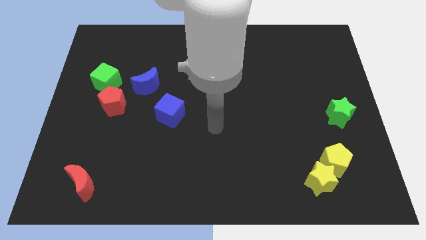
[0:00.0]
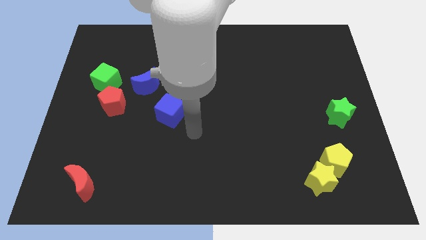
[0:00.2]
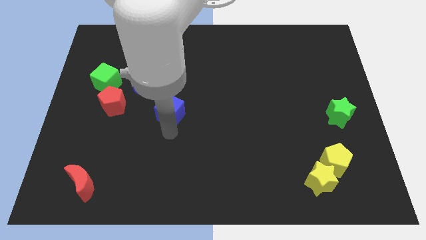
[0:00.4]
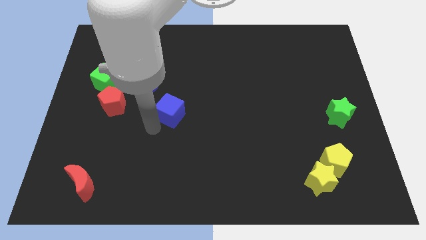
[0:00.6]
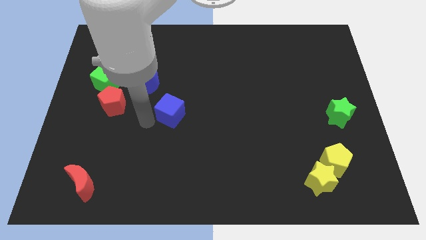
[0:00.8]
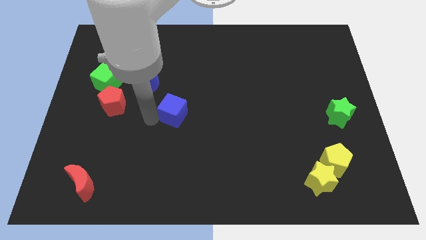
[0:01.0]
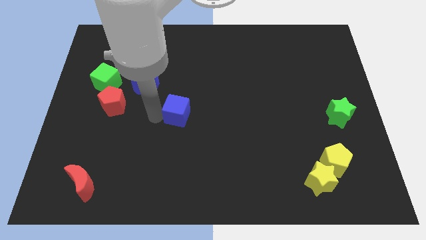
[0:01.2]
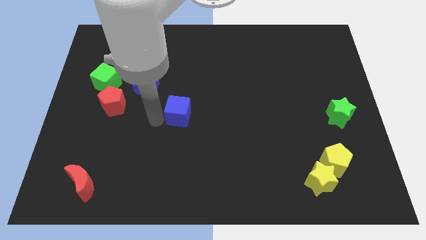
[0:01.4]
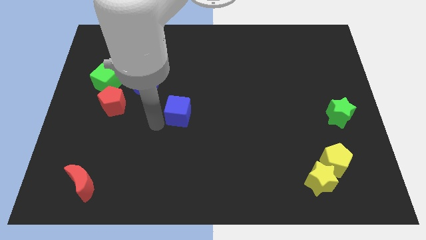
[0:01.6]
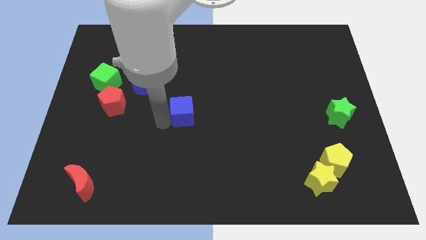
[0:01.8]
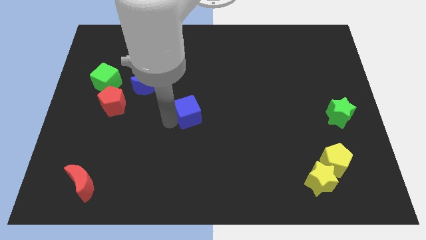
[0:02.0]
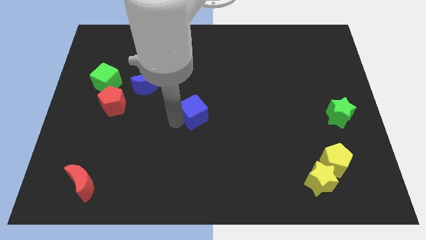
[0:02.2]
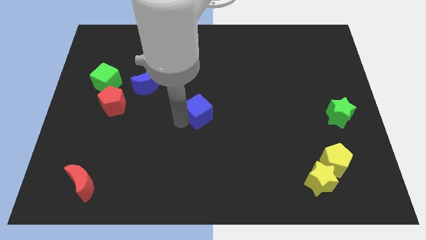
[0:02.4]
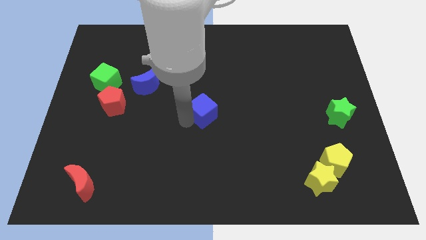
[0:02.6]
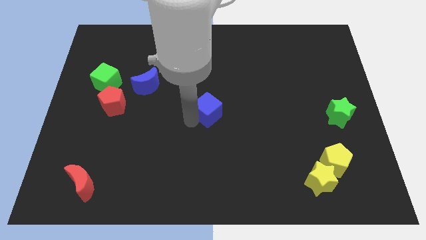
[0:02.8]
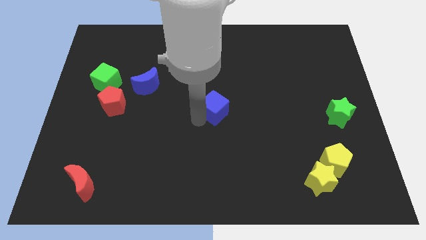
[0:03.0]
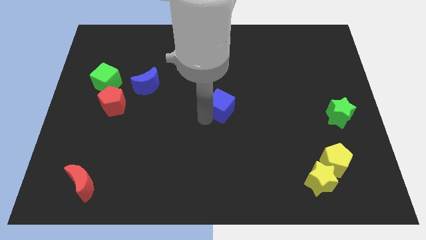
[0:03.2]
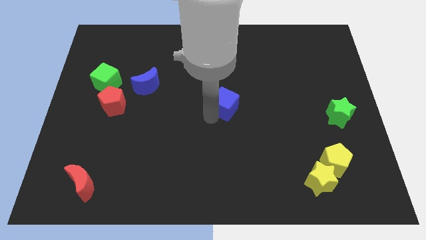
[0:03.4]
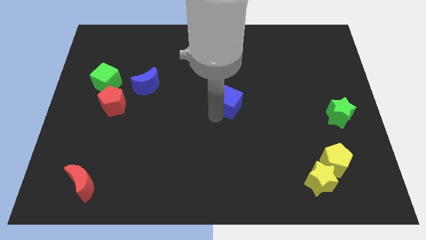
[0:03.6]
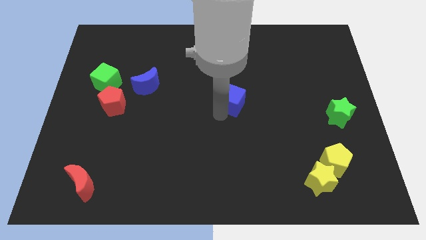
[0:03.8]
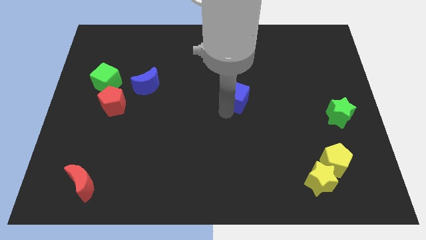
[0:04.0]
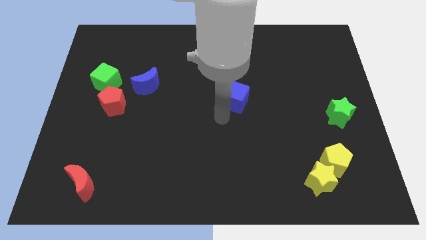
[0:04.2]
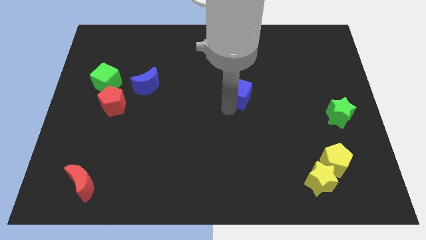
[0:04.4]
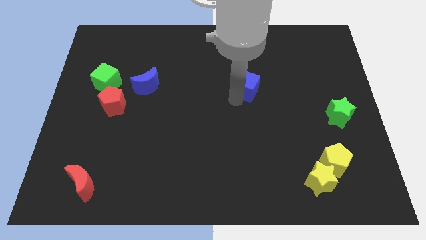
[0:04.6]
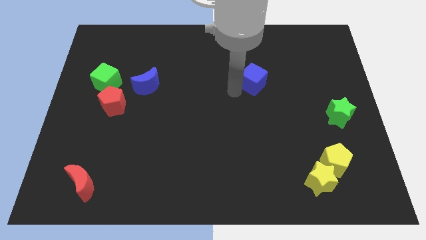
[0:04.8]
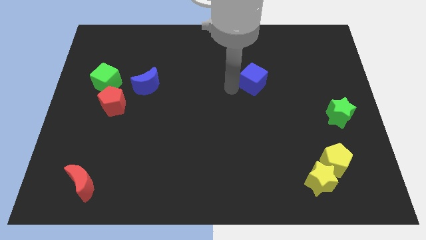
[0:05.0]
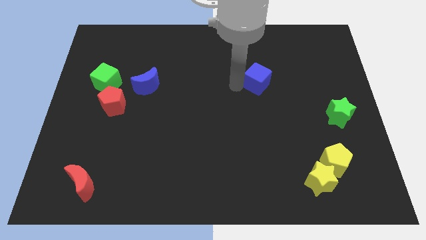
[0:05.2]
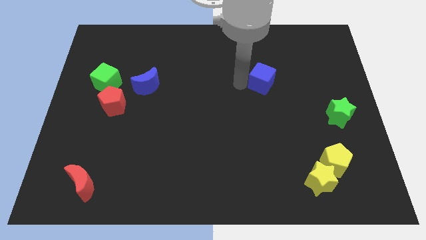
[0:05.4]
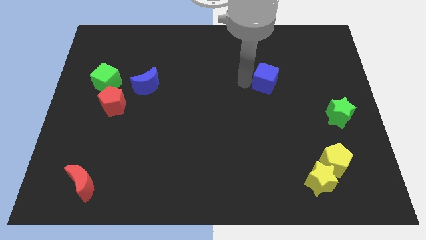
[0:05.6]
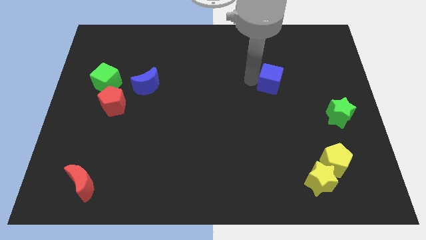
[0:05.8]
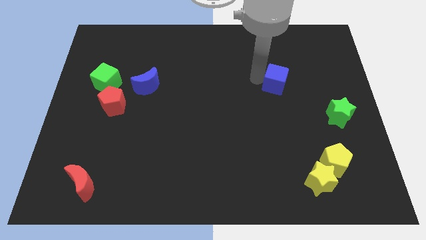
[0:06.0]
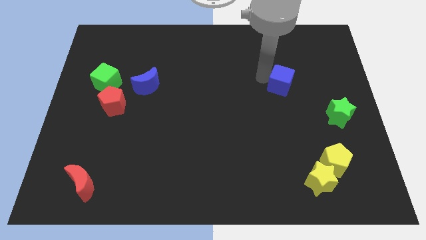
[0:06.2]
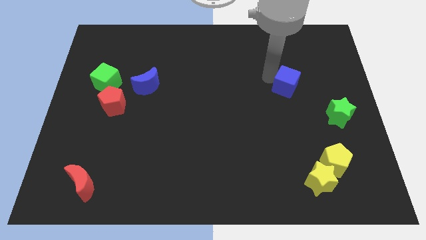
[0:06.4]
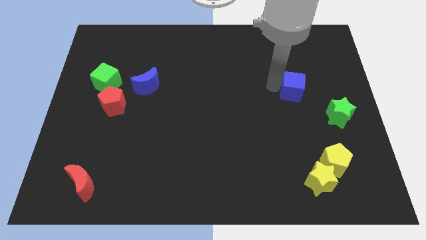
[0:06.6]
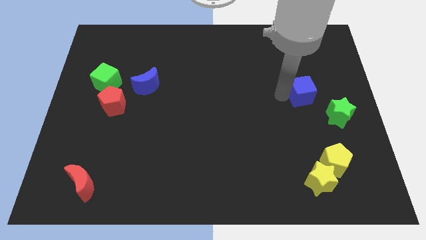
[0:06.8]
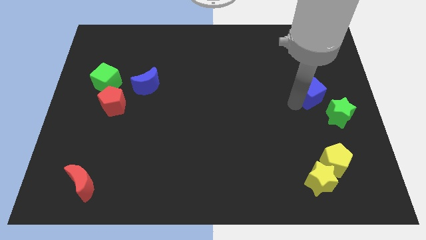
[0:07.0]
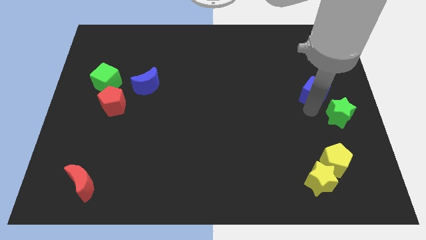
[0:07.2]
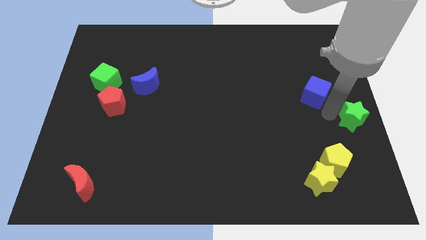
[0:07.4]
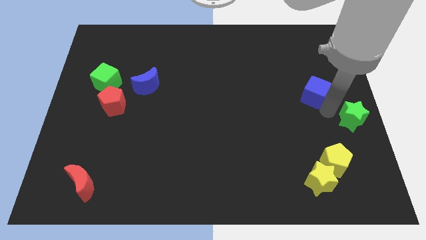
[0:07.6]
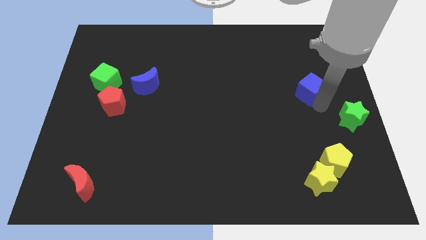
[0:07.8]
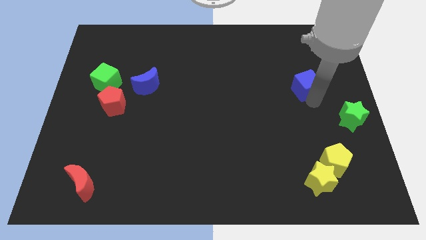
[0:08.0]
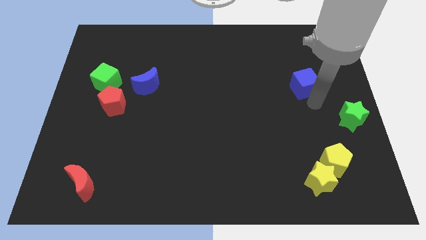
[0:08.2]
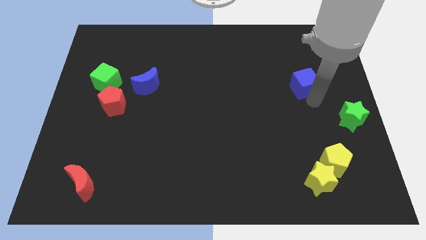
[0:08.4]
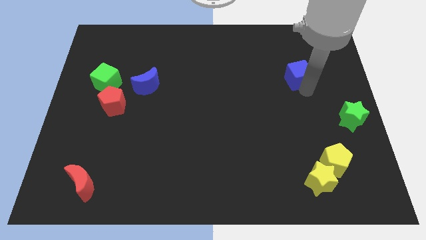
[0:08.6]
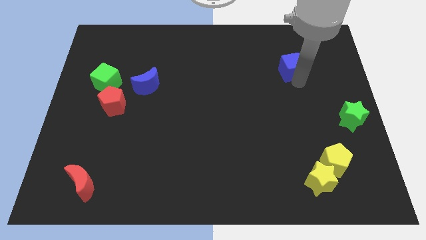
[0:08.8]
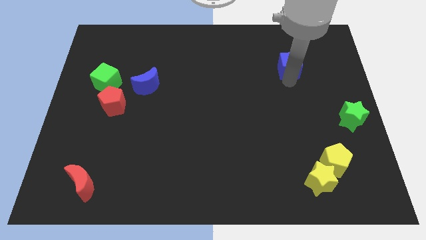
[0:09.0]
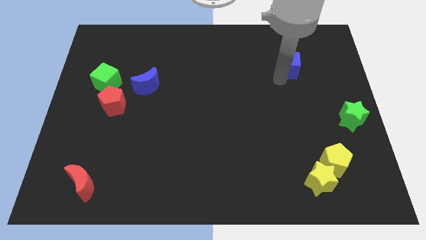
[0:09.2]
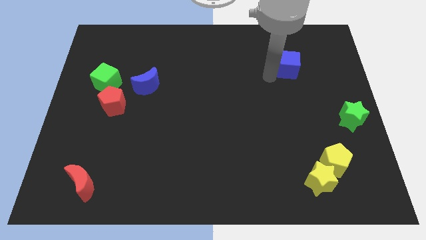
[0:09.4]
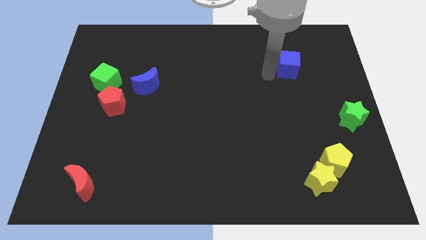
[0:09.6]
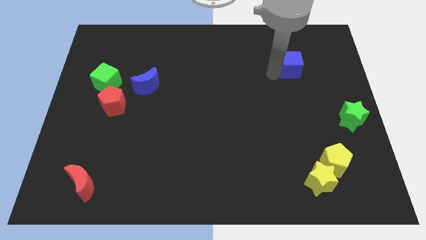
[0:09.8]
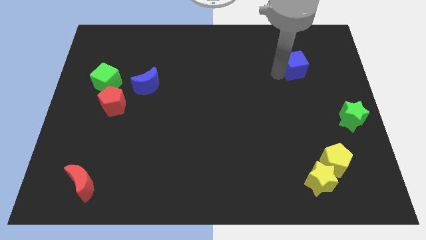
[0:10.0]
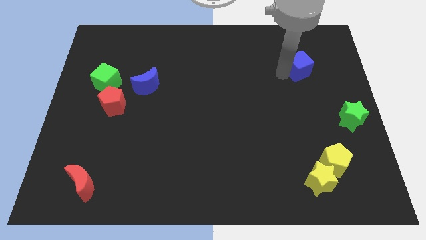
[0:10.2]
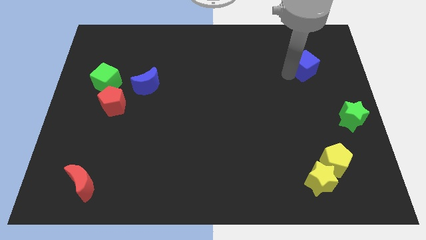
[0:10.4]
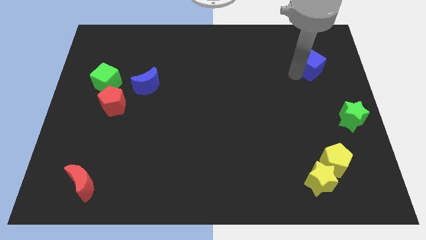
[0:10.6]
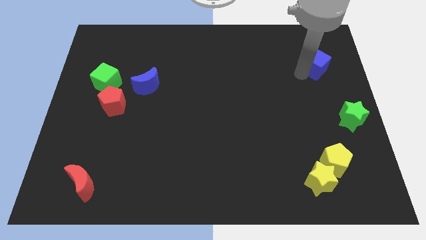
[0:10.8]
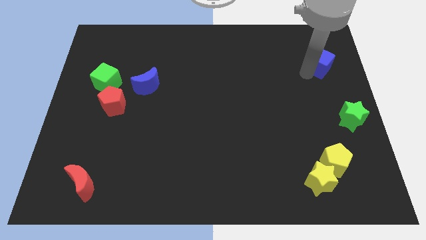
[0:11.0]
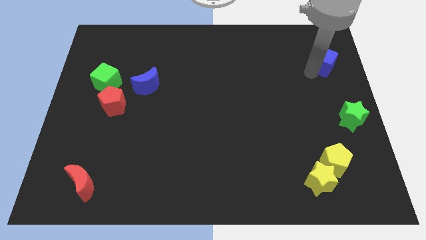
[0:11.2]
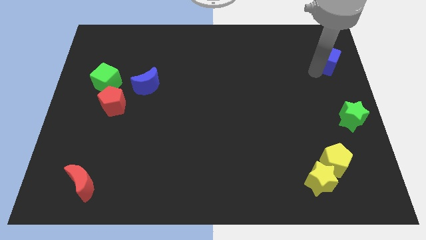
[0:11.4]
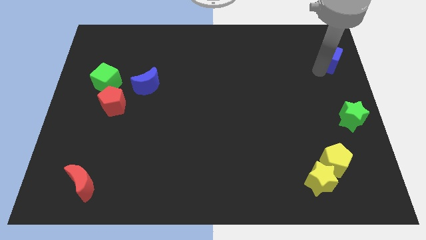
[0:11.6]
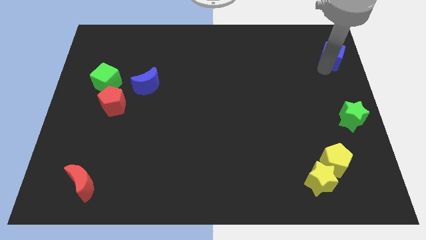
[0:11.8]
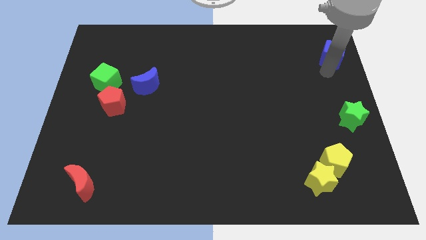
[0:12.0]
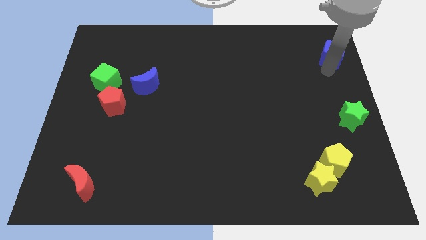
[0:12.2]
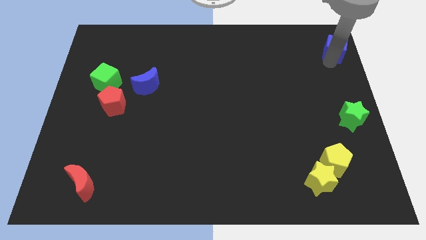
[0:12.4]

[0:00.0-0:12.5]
put the blue cube to the top right of the board

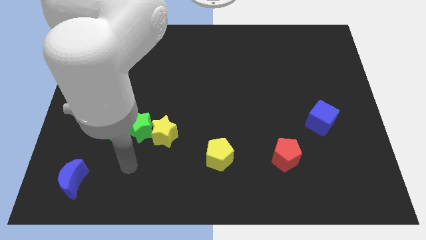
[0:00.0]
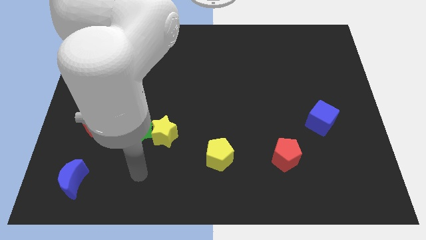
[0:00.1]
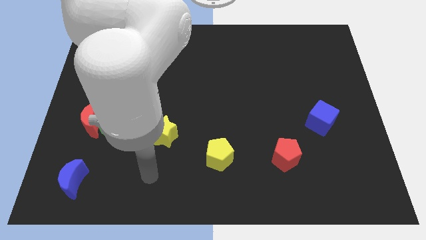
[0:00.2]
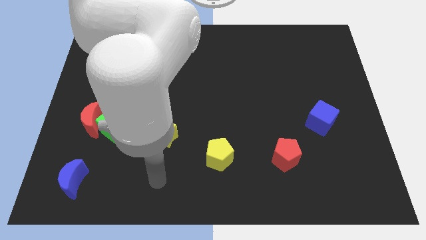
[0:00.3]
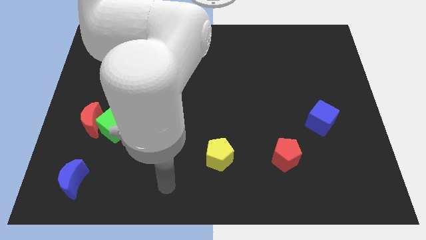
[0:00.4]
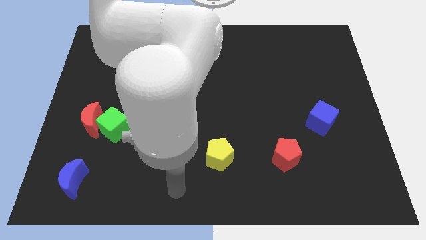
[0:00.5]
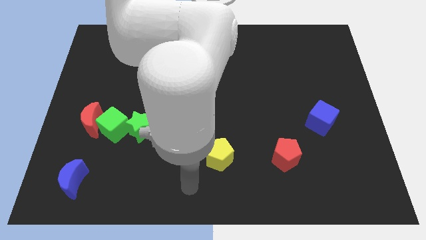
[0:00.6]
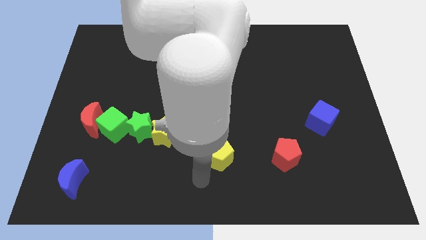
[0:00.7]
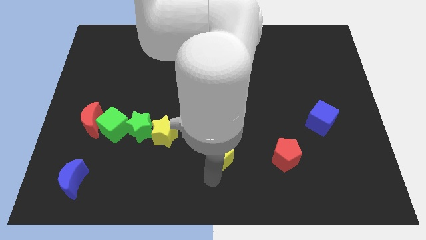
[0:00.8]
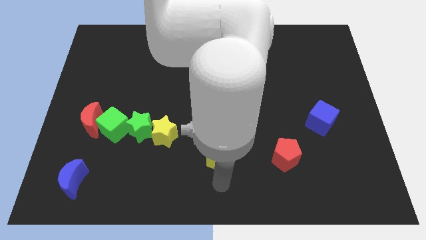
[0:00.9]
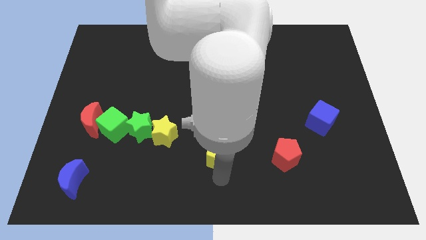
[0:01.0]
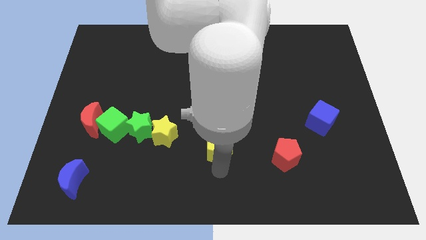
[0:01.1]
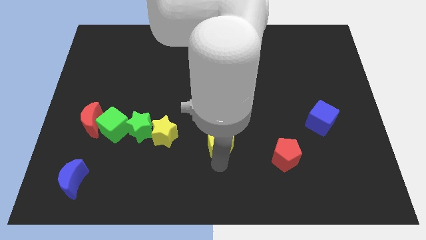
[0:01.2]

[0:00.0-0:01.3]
move the yellow pentagon to the center of the board
